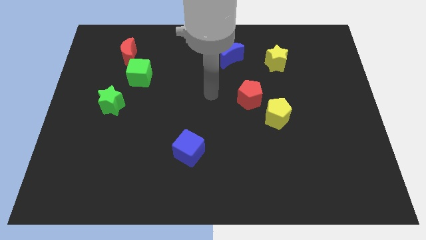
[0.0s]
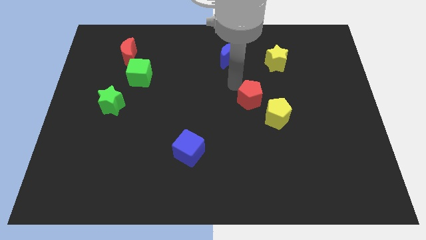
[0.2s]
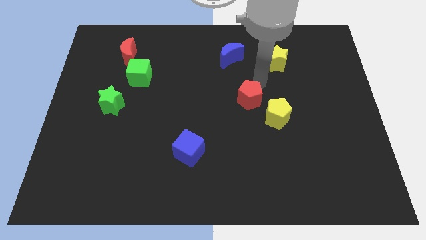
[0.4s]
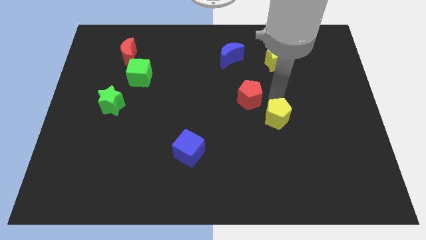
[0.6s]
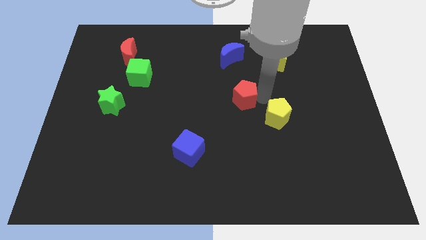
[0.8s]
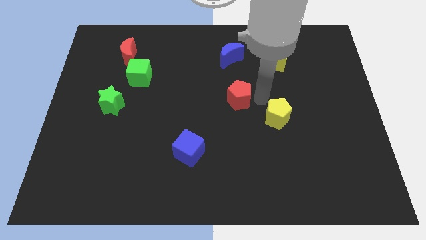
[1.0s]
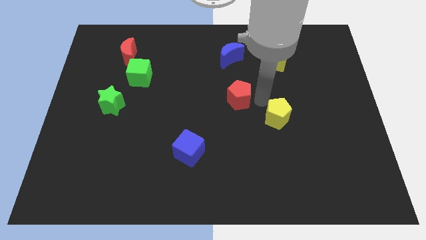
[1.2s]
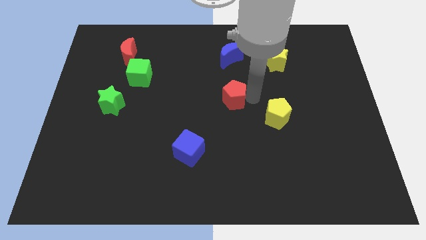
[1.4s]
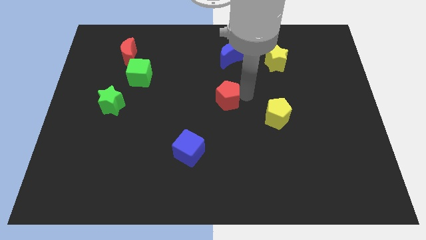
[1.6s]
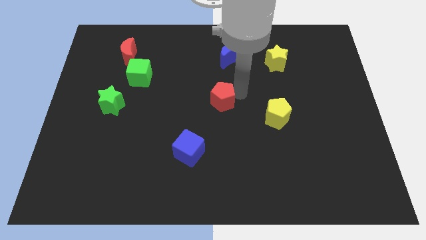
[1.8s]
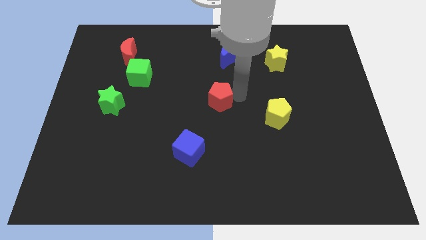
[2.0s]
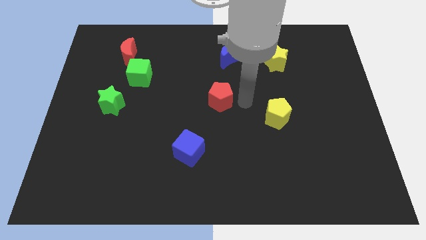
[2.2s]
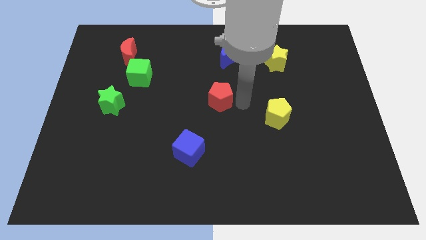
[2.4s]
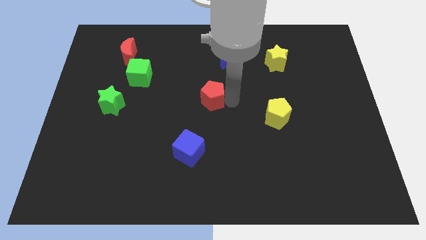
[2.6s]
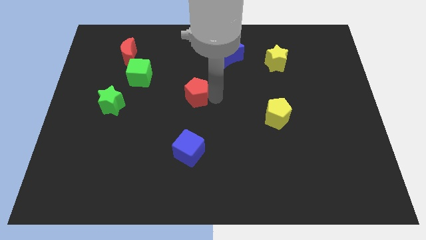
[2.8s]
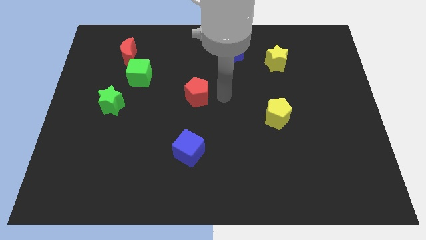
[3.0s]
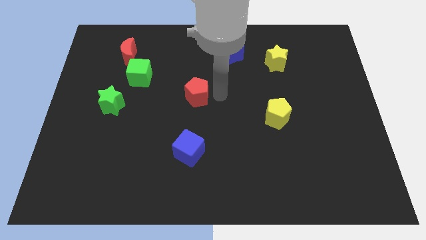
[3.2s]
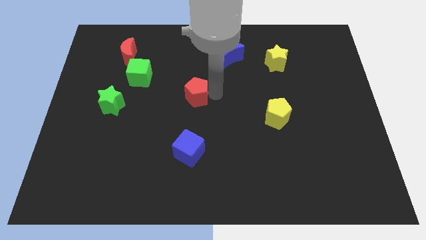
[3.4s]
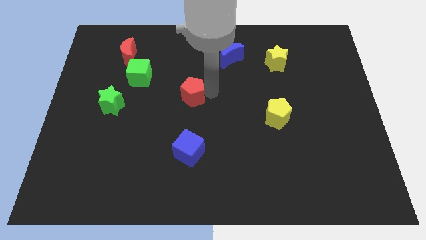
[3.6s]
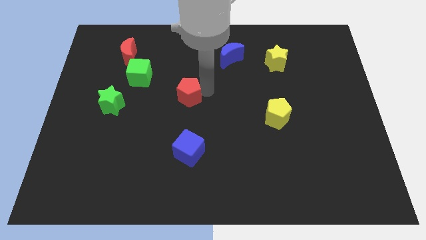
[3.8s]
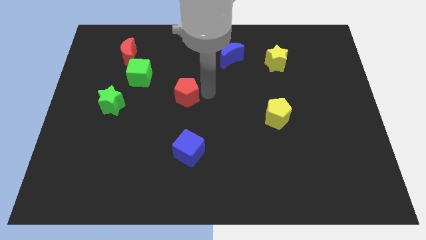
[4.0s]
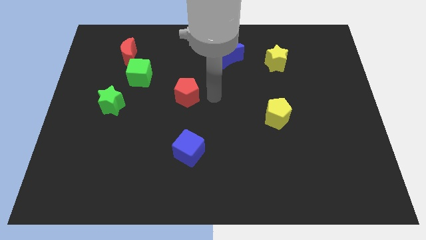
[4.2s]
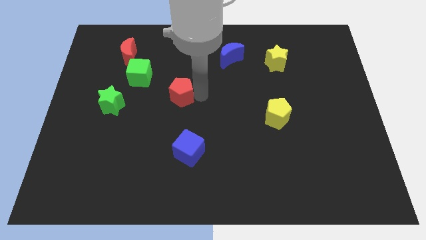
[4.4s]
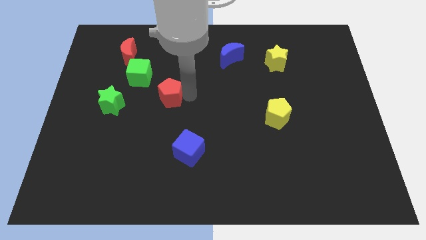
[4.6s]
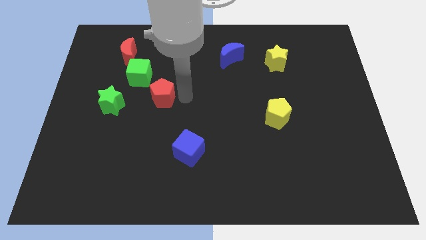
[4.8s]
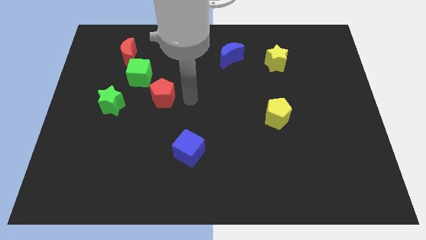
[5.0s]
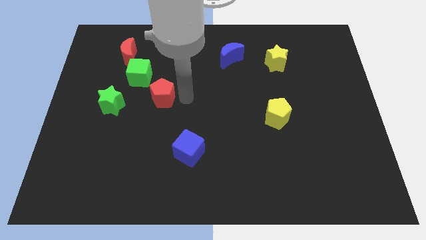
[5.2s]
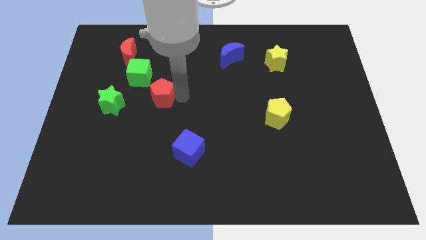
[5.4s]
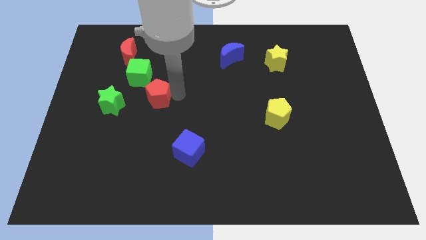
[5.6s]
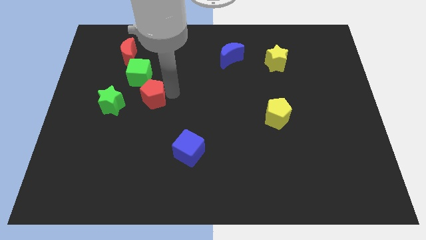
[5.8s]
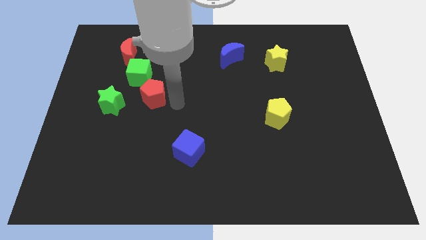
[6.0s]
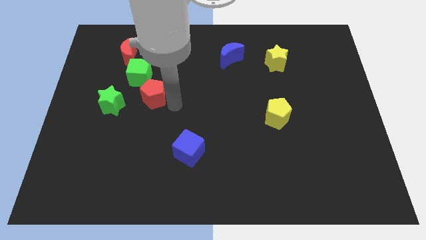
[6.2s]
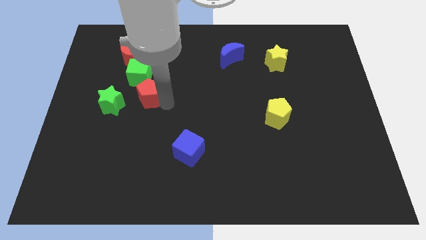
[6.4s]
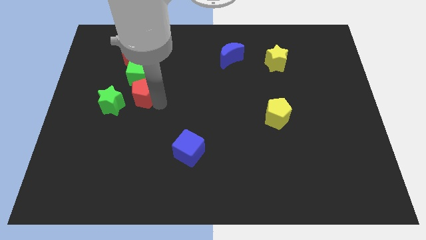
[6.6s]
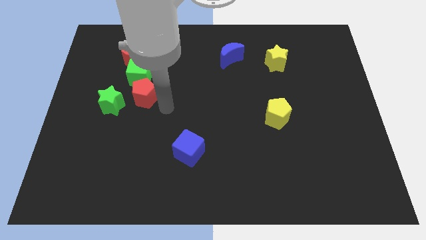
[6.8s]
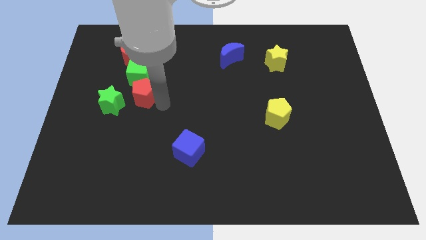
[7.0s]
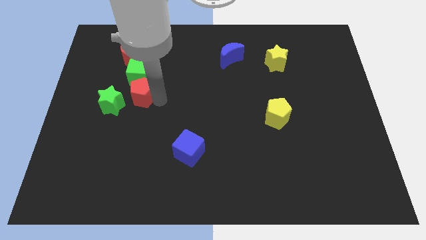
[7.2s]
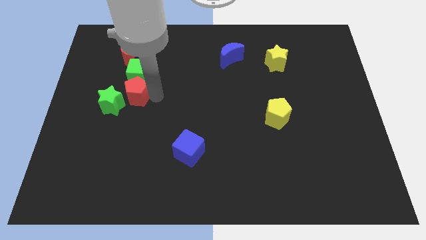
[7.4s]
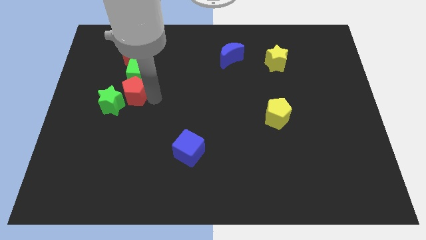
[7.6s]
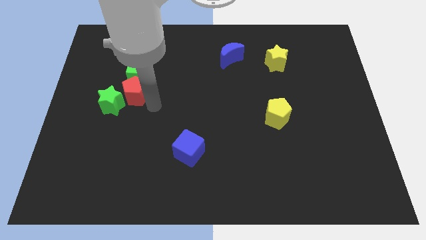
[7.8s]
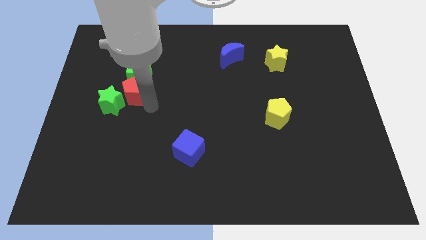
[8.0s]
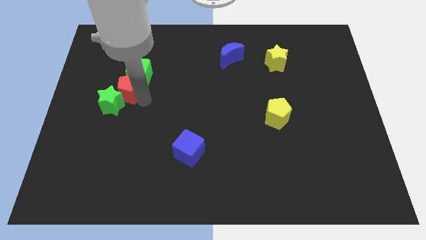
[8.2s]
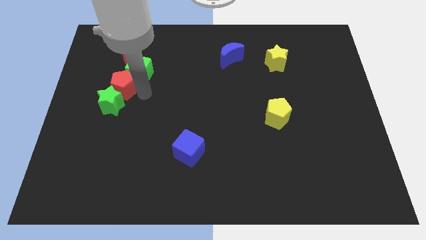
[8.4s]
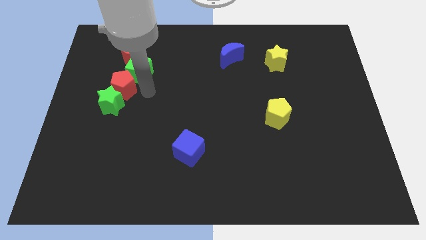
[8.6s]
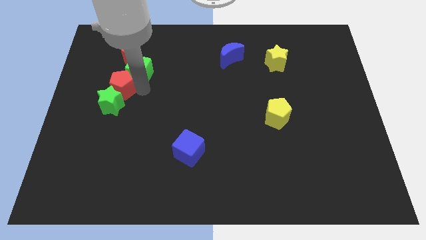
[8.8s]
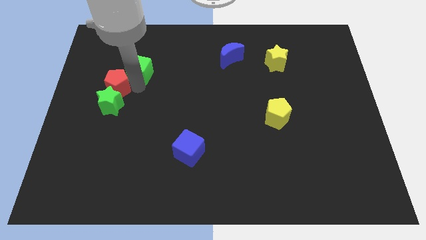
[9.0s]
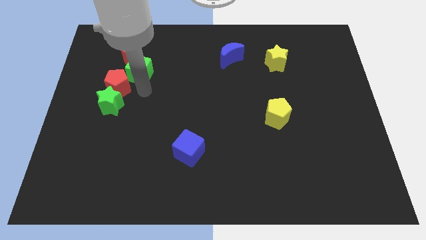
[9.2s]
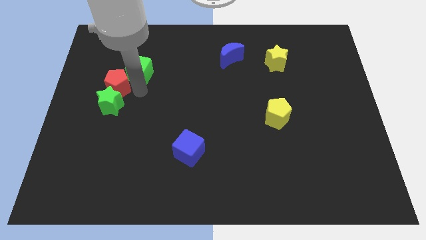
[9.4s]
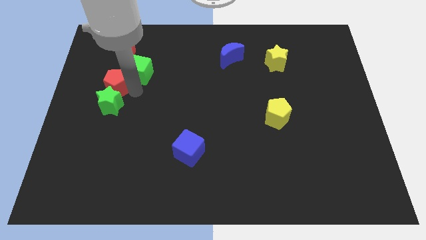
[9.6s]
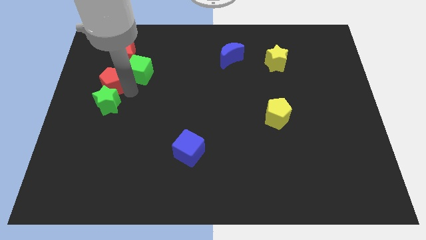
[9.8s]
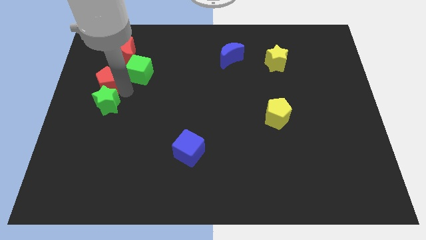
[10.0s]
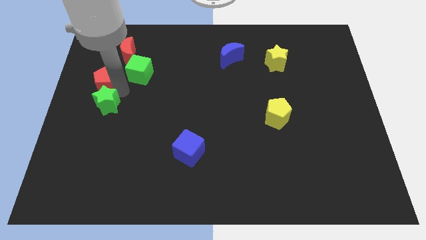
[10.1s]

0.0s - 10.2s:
push the red pentagon to the left side of the board

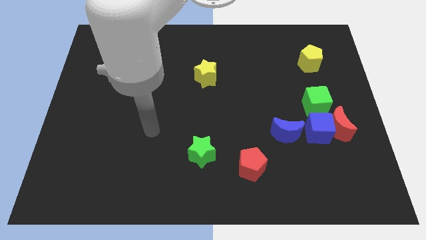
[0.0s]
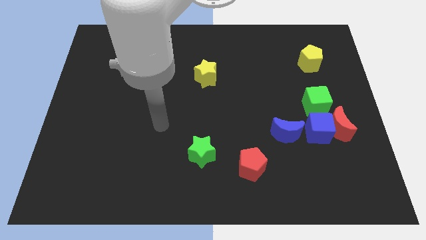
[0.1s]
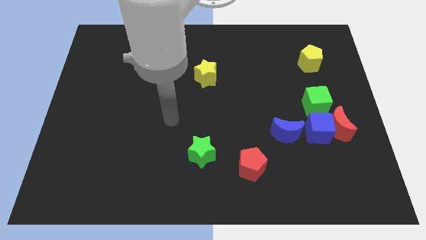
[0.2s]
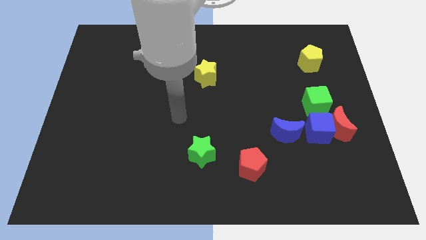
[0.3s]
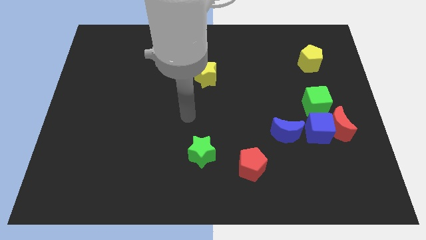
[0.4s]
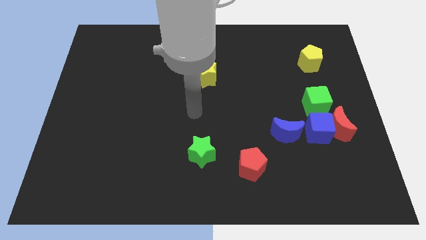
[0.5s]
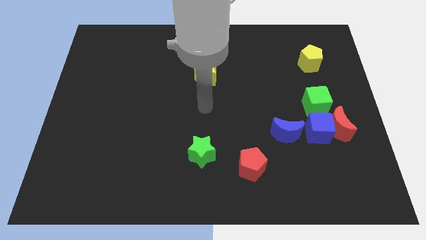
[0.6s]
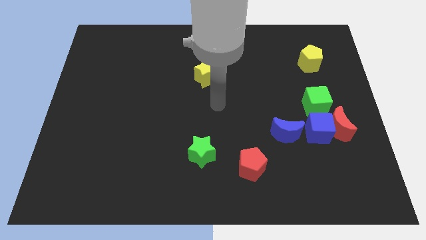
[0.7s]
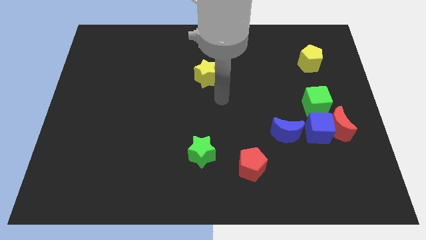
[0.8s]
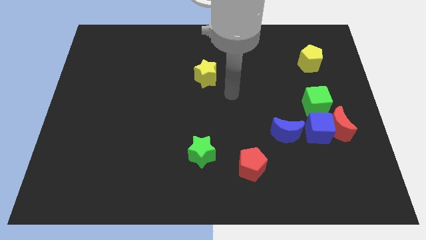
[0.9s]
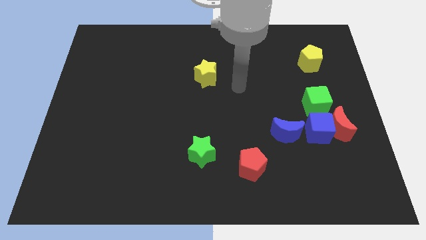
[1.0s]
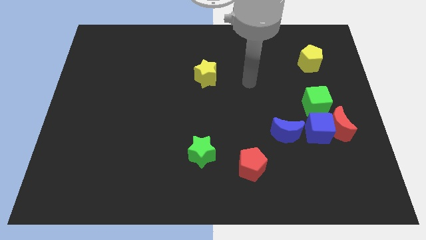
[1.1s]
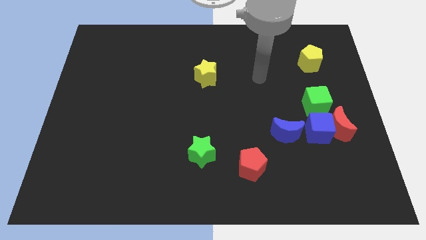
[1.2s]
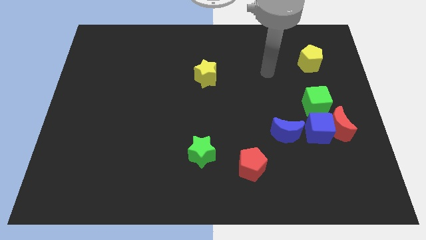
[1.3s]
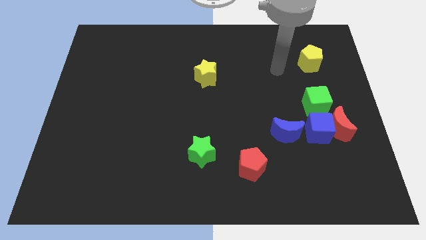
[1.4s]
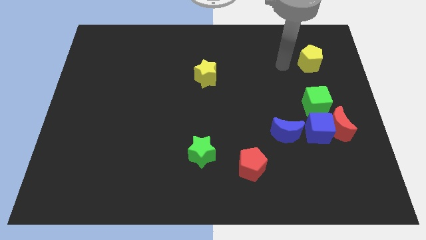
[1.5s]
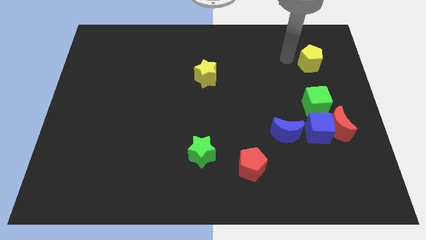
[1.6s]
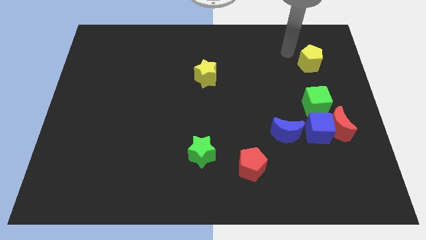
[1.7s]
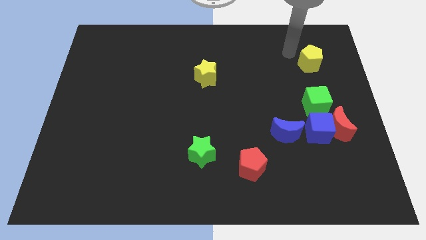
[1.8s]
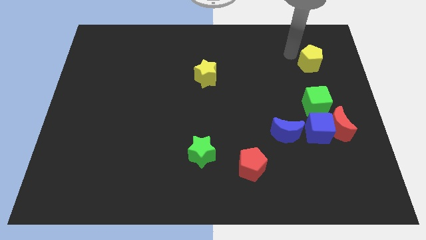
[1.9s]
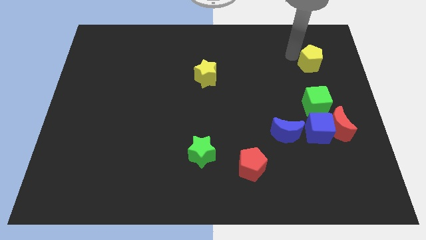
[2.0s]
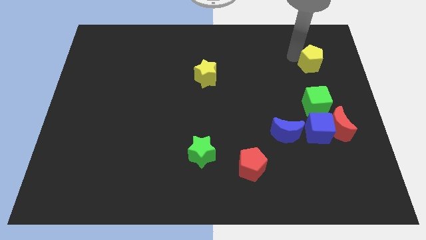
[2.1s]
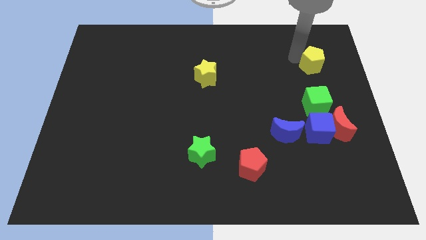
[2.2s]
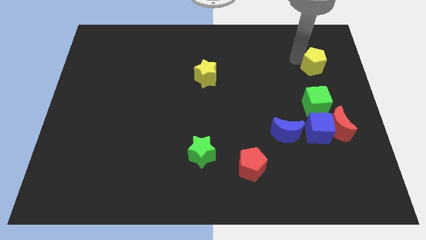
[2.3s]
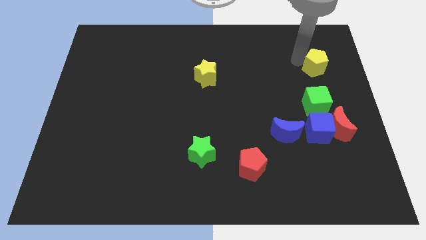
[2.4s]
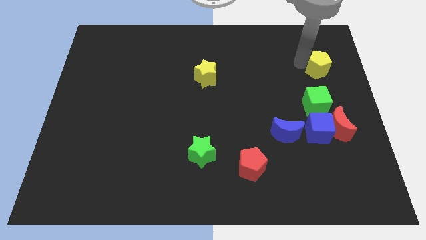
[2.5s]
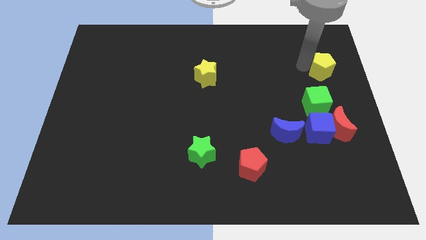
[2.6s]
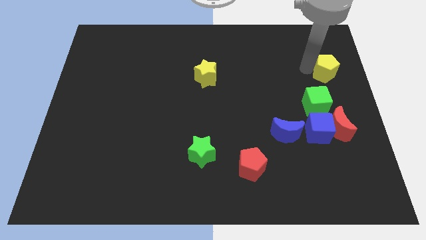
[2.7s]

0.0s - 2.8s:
put the yellow pentagon to the center right
